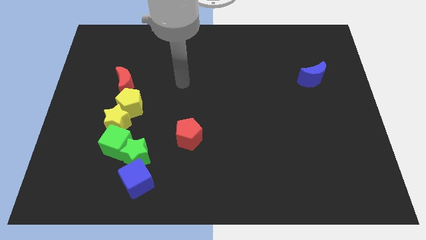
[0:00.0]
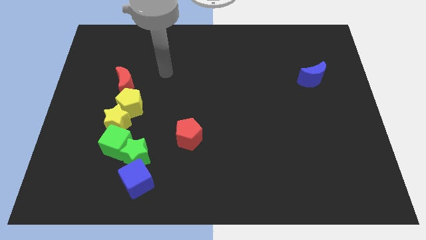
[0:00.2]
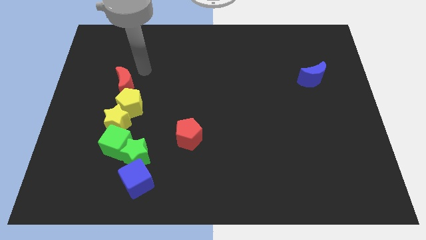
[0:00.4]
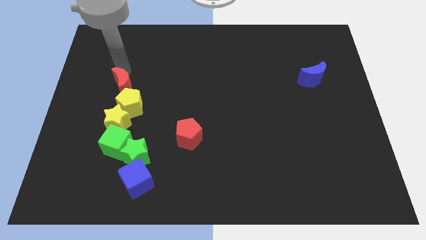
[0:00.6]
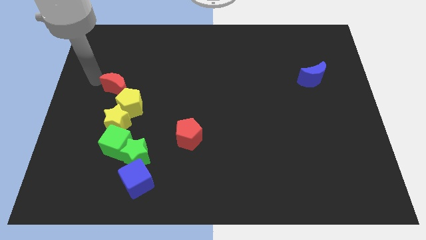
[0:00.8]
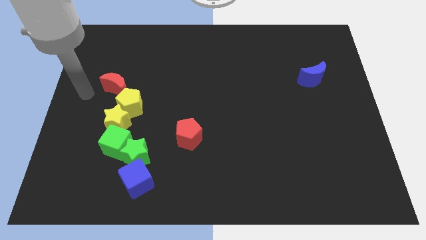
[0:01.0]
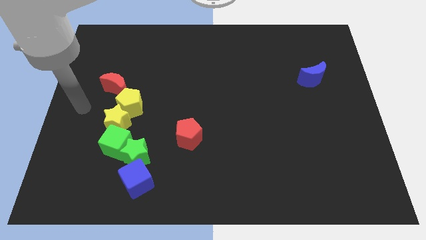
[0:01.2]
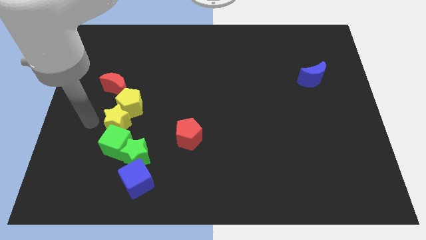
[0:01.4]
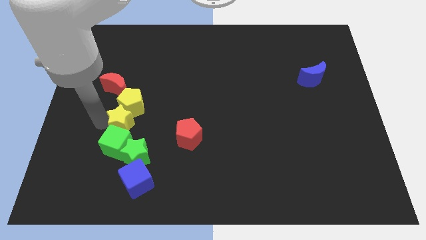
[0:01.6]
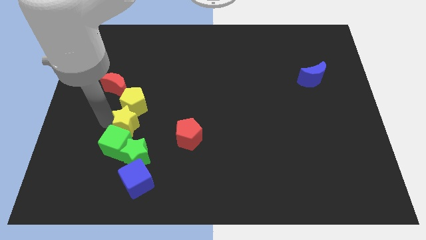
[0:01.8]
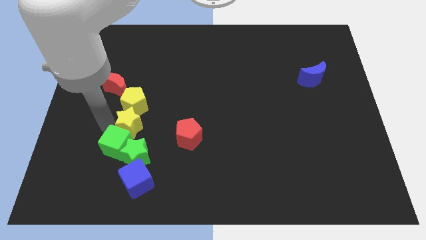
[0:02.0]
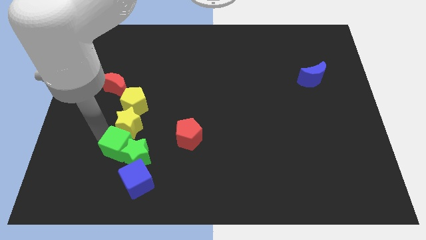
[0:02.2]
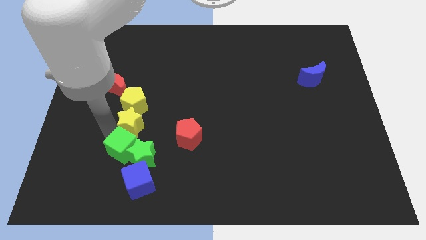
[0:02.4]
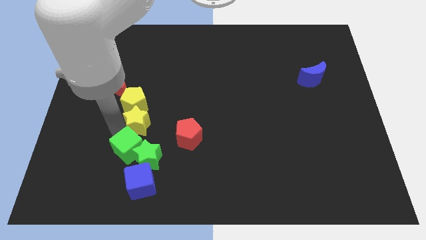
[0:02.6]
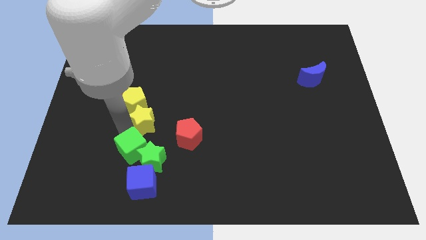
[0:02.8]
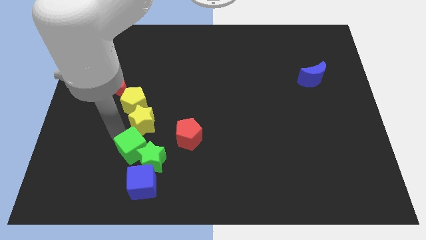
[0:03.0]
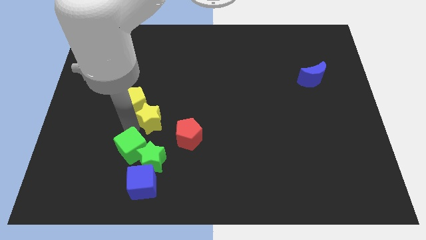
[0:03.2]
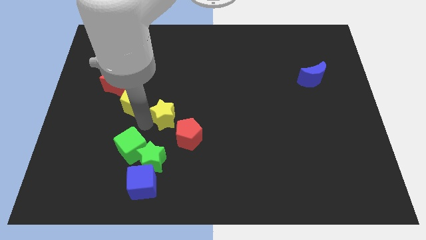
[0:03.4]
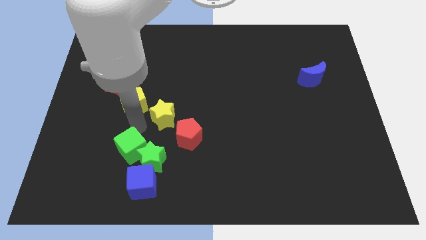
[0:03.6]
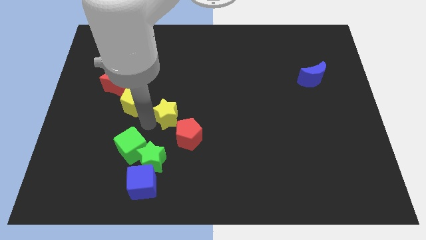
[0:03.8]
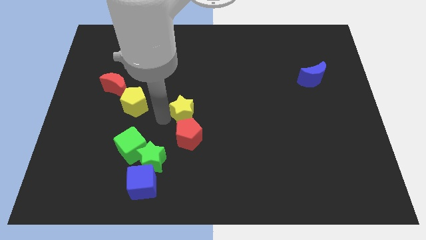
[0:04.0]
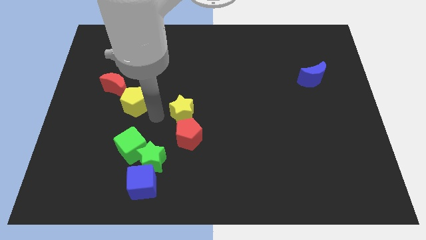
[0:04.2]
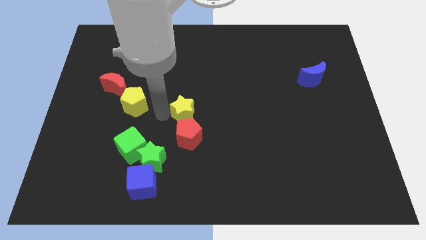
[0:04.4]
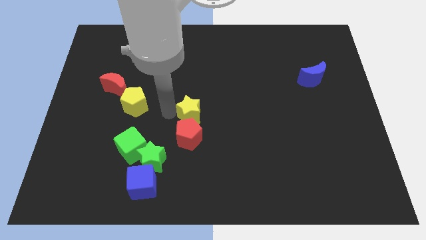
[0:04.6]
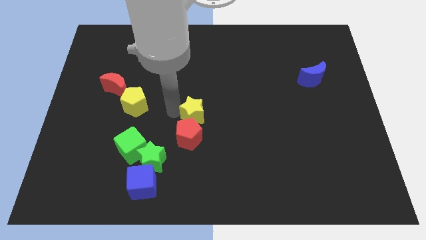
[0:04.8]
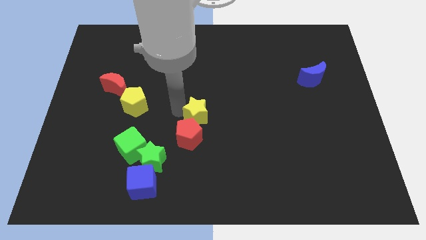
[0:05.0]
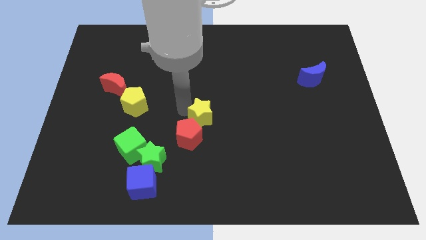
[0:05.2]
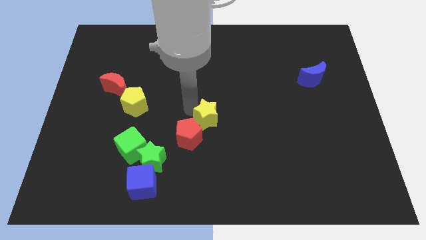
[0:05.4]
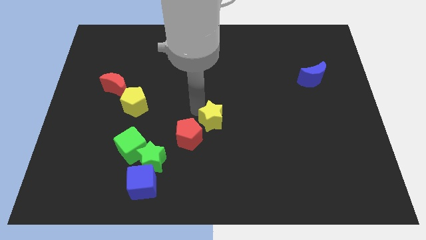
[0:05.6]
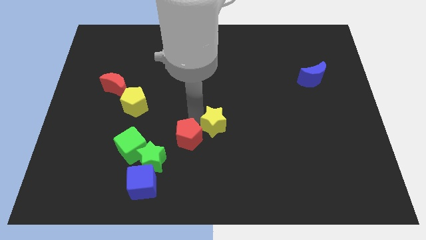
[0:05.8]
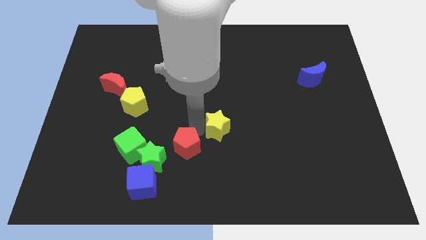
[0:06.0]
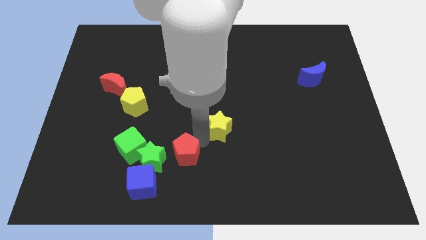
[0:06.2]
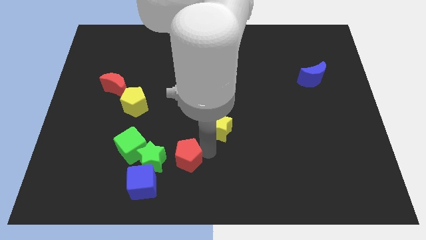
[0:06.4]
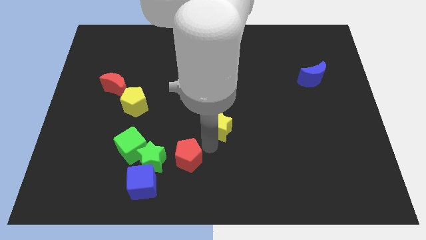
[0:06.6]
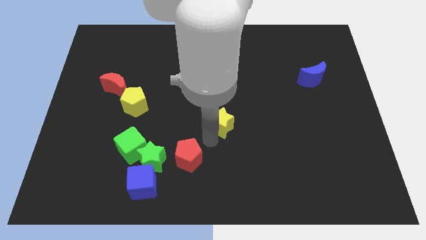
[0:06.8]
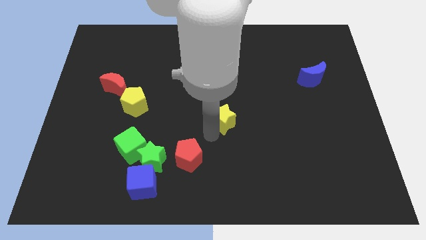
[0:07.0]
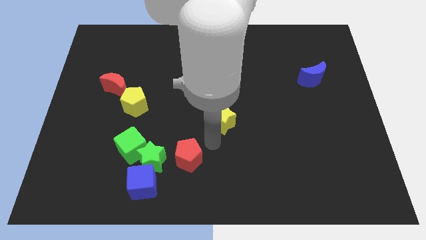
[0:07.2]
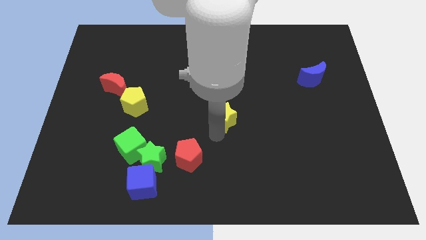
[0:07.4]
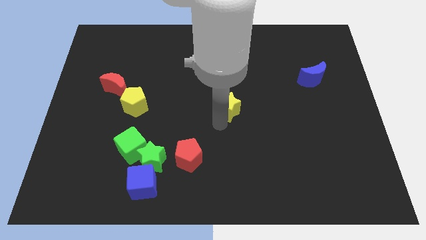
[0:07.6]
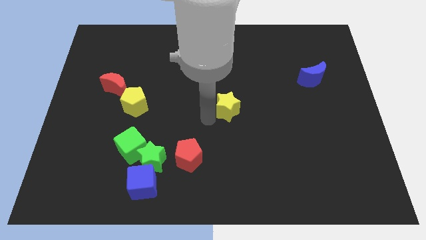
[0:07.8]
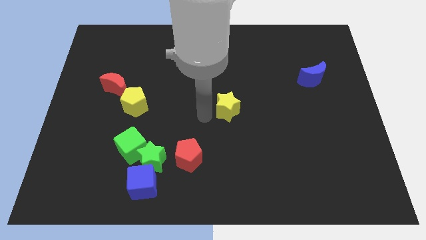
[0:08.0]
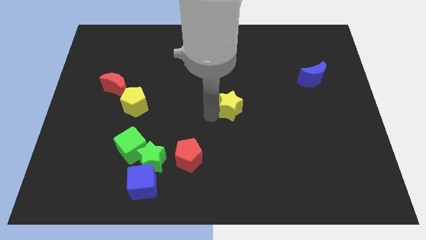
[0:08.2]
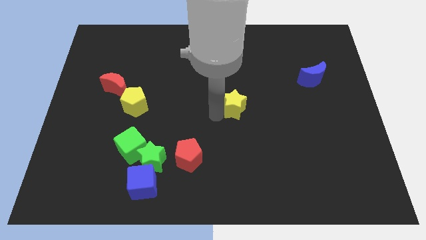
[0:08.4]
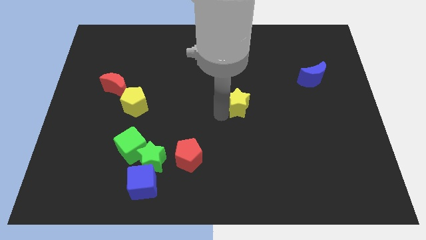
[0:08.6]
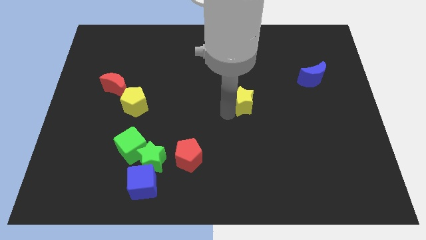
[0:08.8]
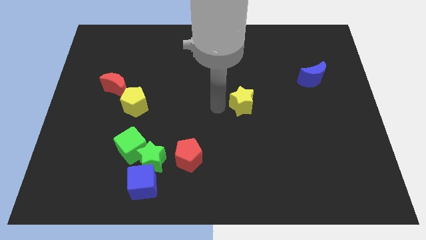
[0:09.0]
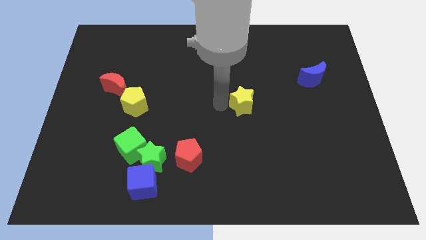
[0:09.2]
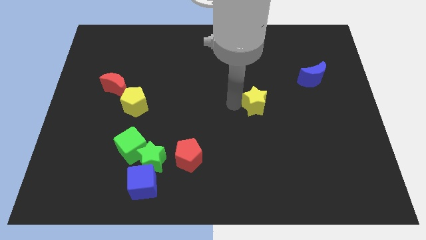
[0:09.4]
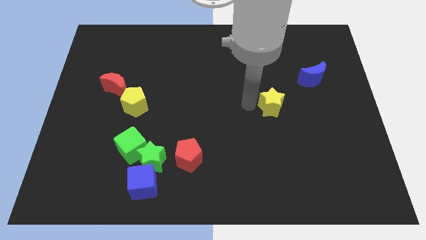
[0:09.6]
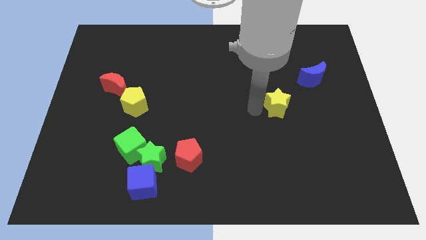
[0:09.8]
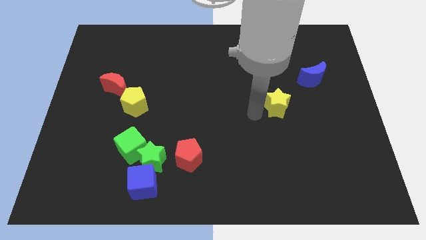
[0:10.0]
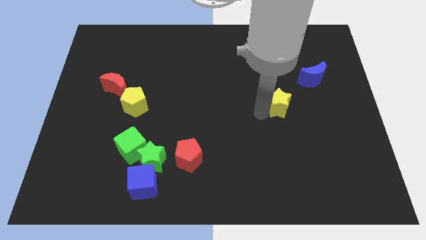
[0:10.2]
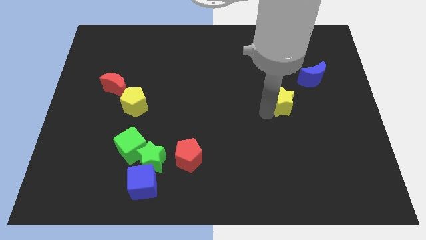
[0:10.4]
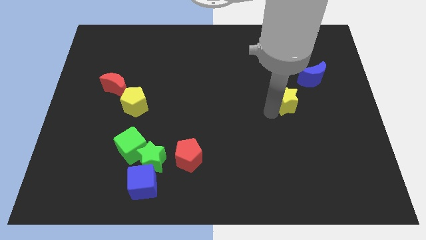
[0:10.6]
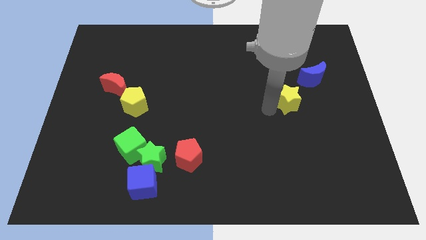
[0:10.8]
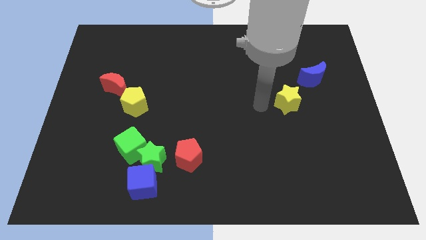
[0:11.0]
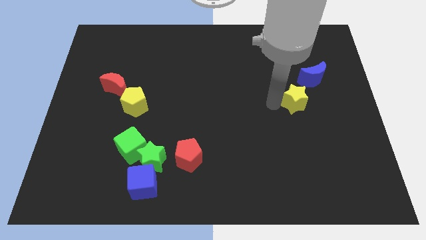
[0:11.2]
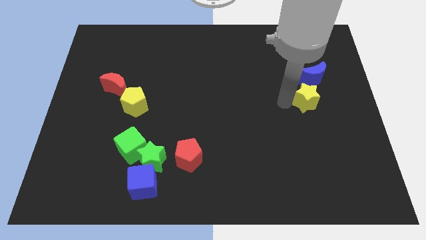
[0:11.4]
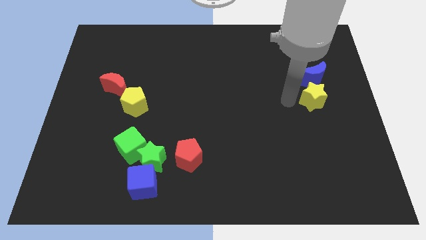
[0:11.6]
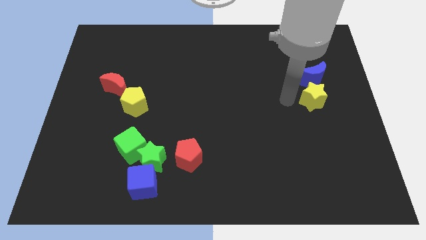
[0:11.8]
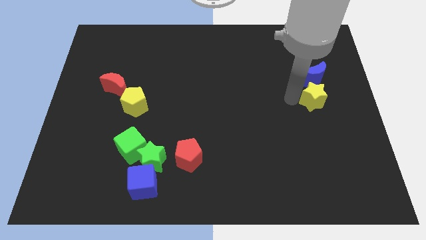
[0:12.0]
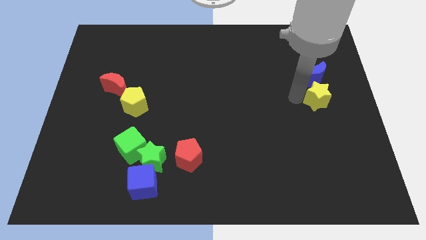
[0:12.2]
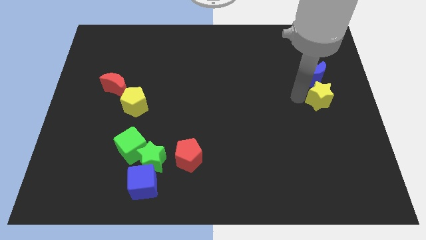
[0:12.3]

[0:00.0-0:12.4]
push the yellow star to the center right

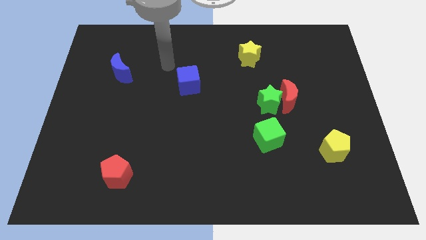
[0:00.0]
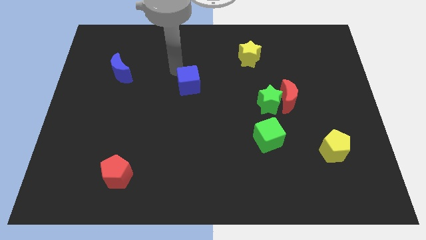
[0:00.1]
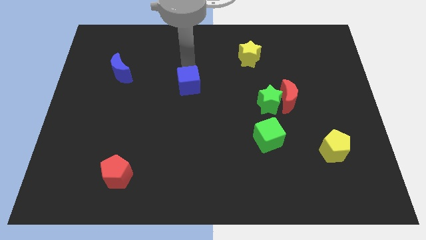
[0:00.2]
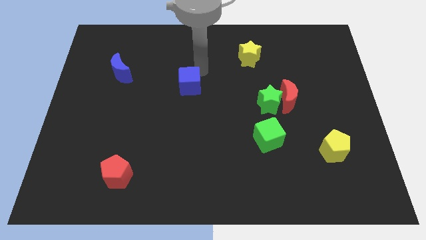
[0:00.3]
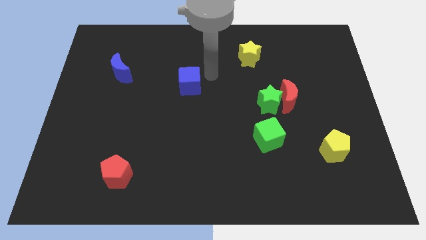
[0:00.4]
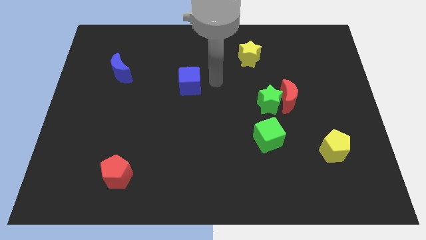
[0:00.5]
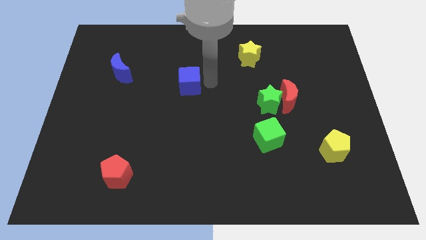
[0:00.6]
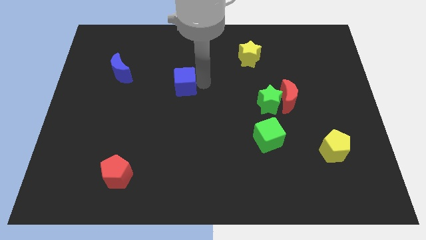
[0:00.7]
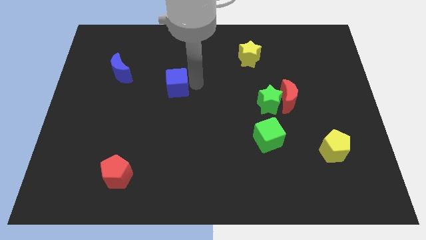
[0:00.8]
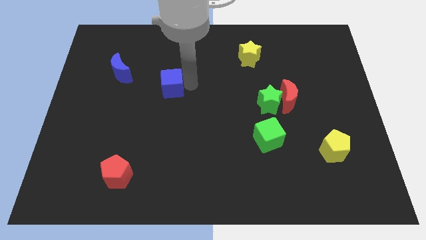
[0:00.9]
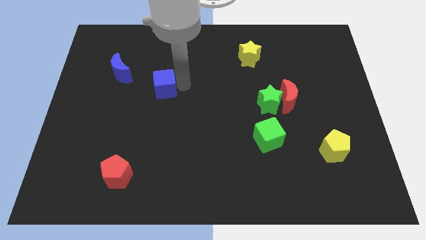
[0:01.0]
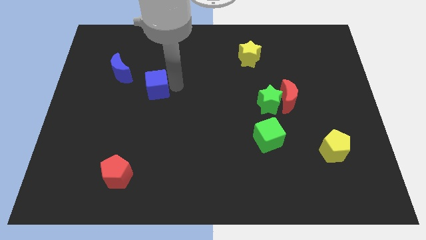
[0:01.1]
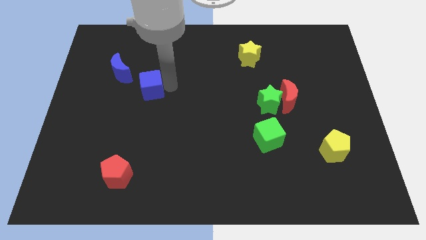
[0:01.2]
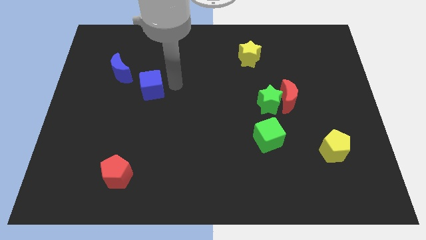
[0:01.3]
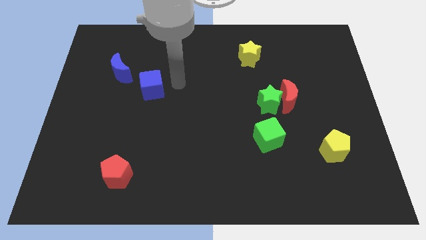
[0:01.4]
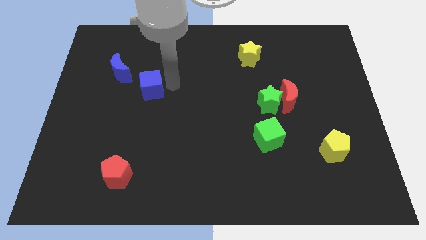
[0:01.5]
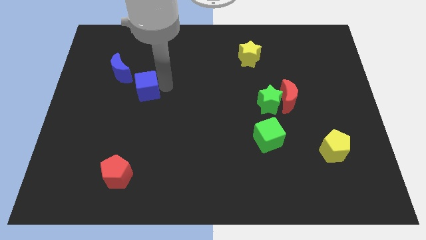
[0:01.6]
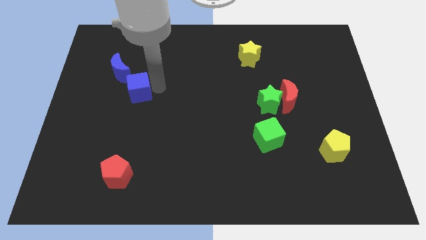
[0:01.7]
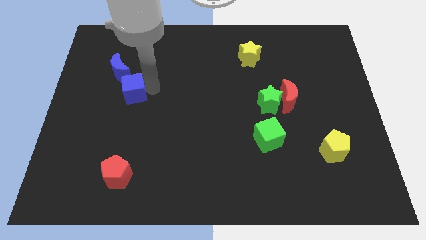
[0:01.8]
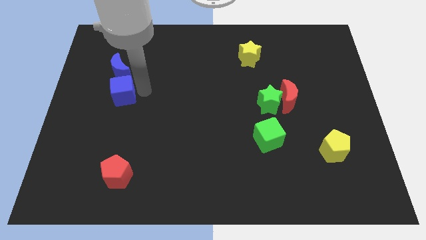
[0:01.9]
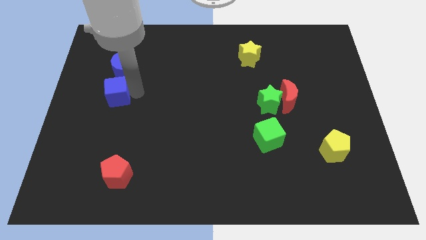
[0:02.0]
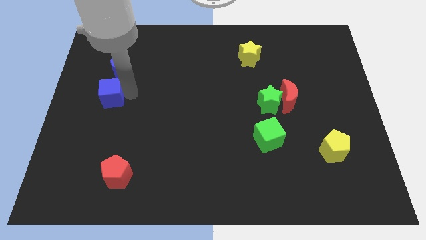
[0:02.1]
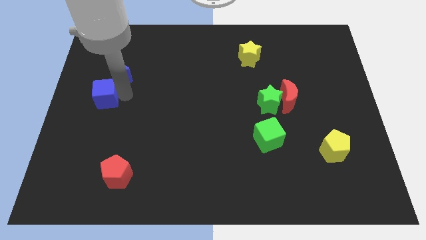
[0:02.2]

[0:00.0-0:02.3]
slide the blue cube to the left side of the board
